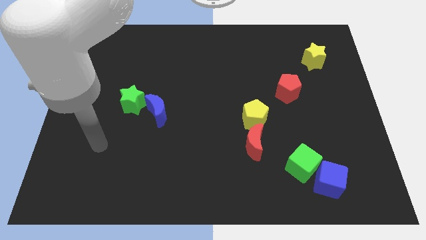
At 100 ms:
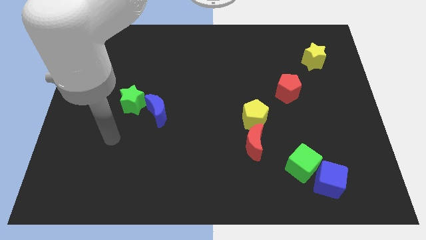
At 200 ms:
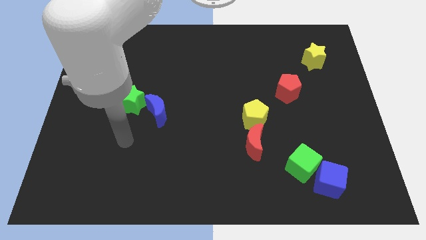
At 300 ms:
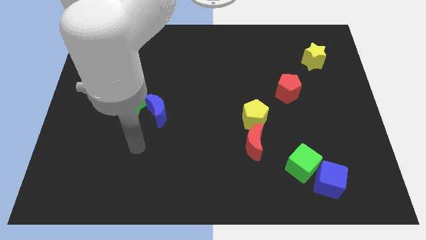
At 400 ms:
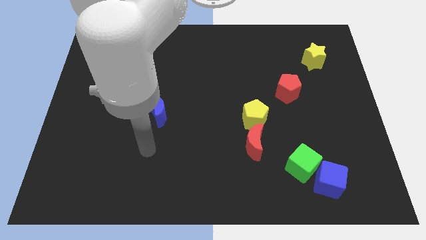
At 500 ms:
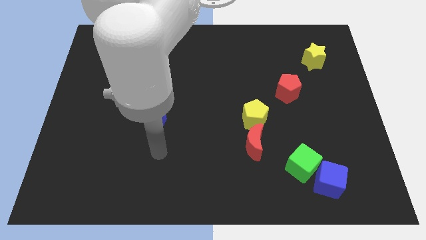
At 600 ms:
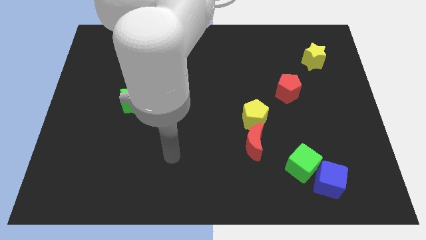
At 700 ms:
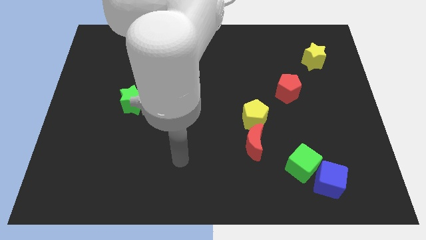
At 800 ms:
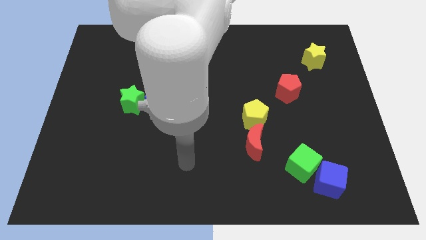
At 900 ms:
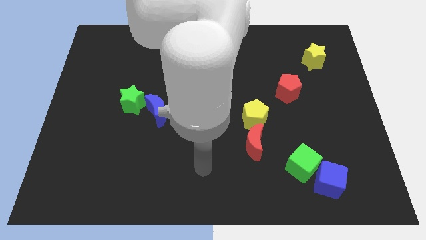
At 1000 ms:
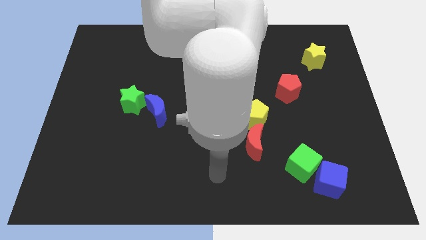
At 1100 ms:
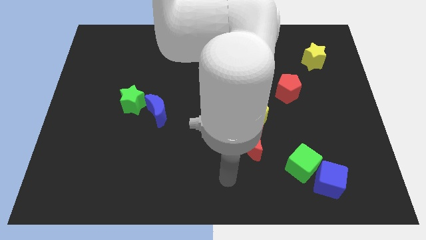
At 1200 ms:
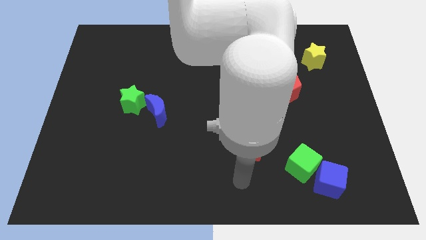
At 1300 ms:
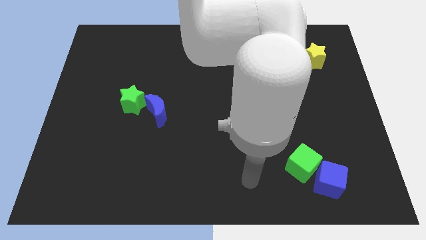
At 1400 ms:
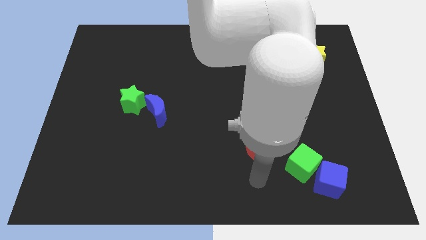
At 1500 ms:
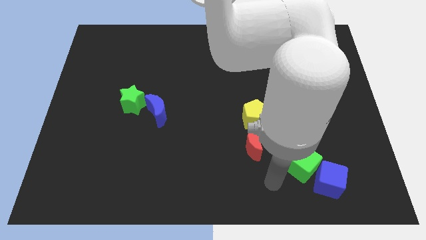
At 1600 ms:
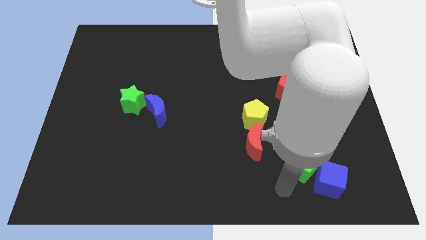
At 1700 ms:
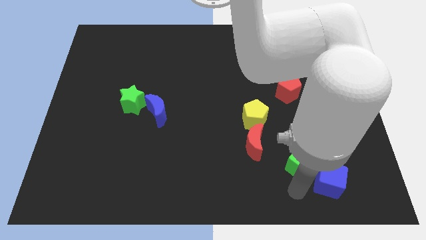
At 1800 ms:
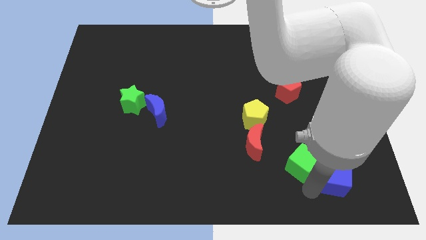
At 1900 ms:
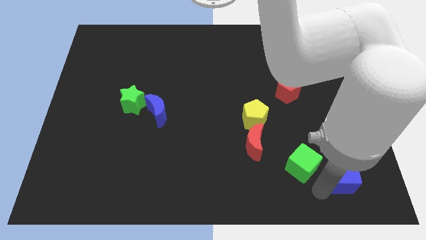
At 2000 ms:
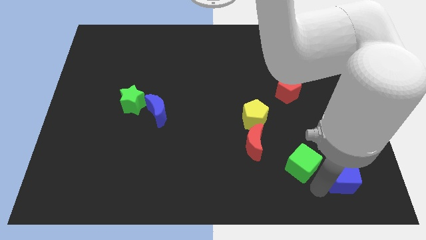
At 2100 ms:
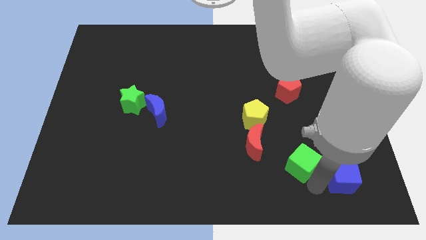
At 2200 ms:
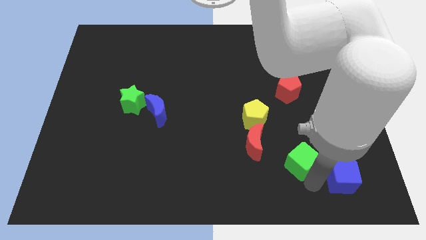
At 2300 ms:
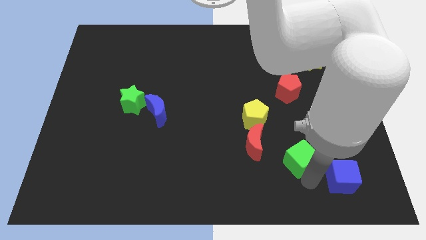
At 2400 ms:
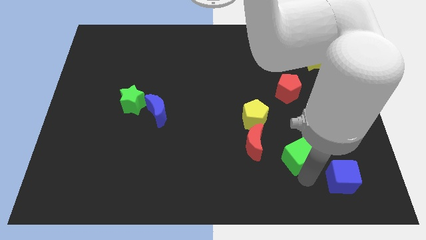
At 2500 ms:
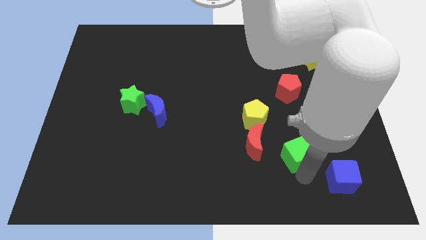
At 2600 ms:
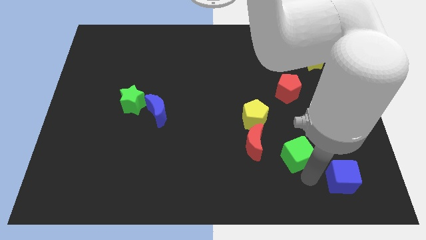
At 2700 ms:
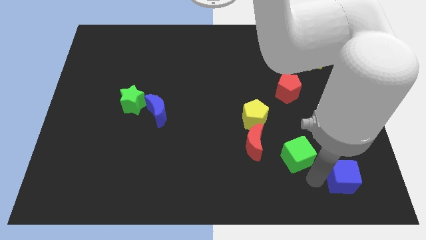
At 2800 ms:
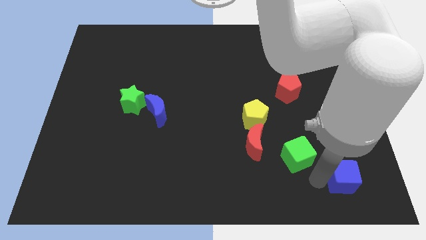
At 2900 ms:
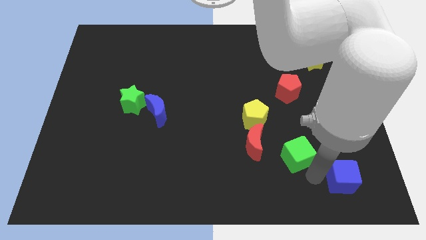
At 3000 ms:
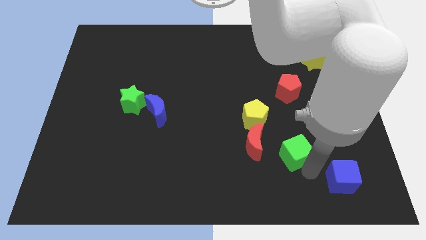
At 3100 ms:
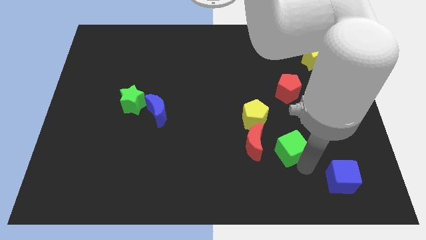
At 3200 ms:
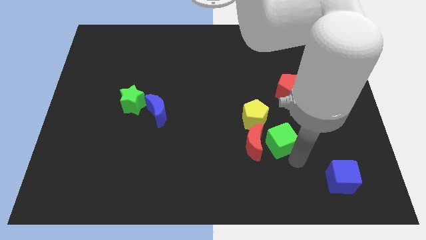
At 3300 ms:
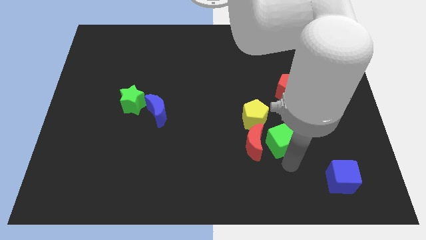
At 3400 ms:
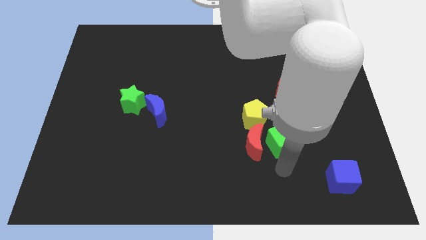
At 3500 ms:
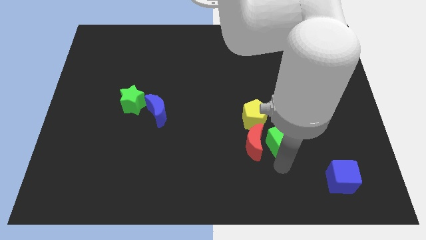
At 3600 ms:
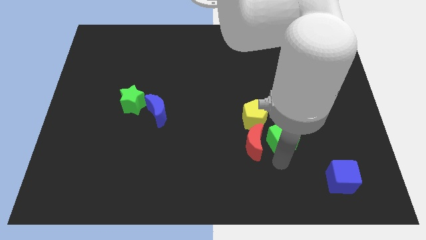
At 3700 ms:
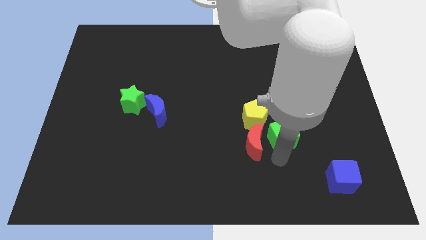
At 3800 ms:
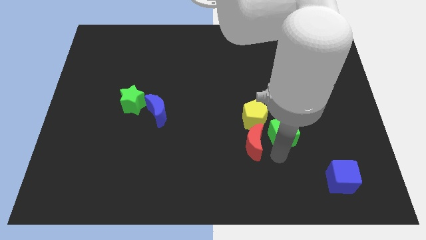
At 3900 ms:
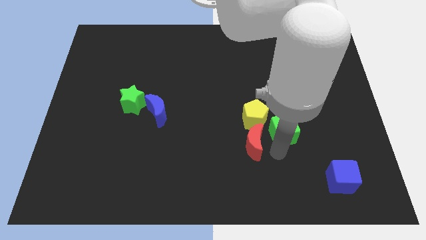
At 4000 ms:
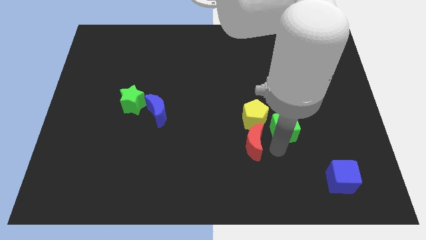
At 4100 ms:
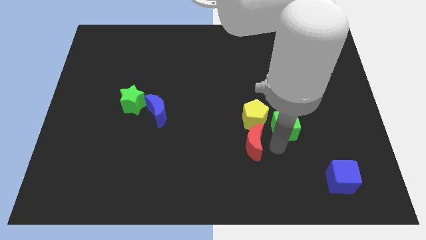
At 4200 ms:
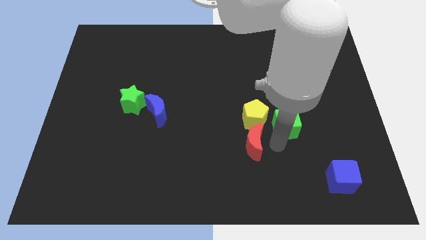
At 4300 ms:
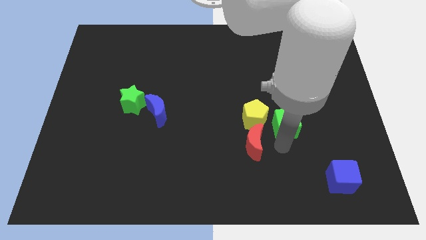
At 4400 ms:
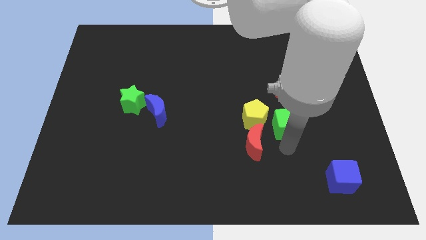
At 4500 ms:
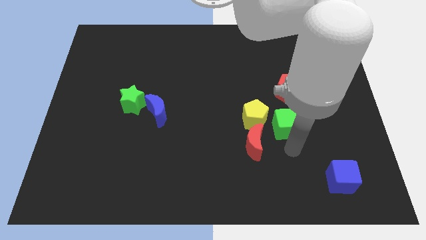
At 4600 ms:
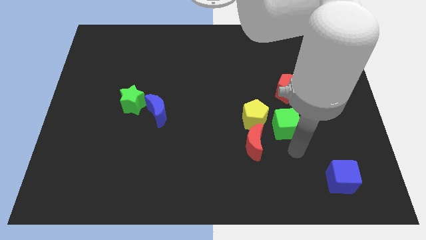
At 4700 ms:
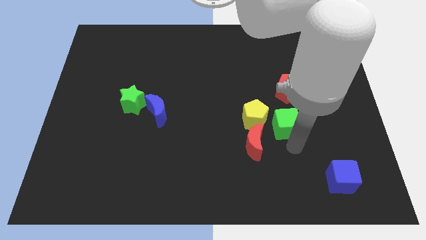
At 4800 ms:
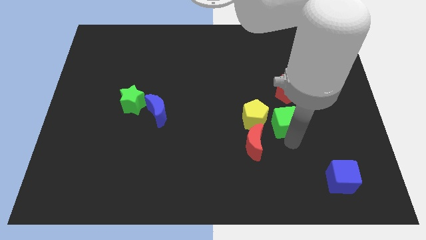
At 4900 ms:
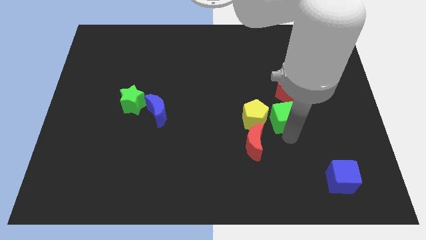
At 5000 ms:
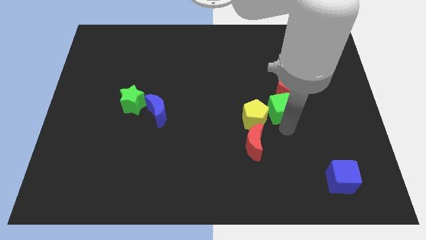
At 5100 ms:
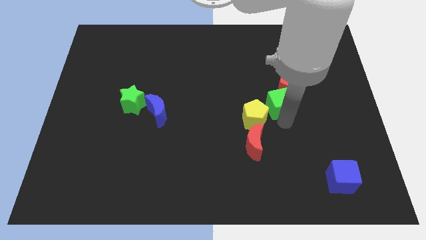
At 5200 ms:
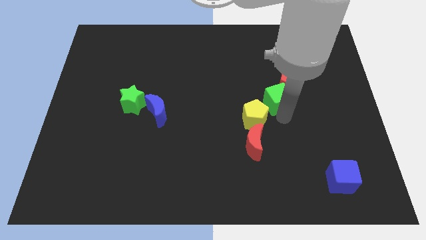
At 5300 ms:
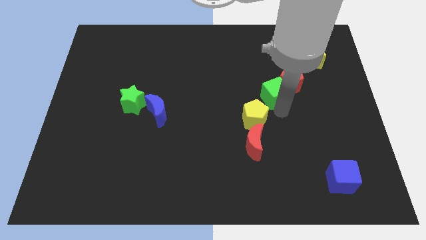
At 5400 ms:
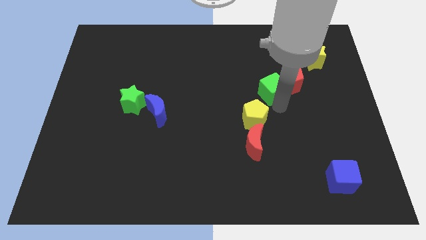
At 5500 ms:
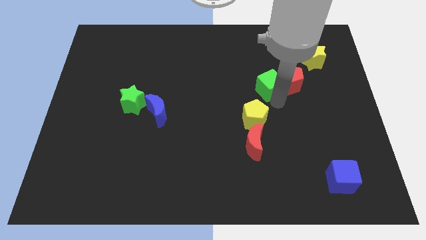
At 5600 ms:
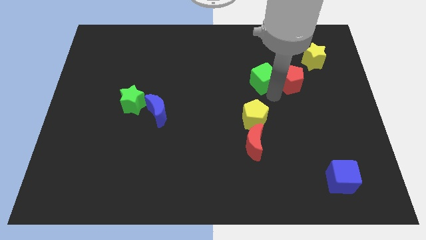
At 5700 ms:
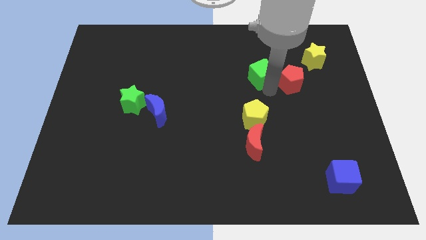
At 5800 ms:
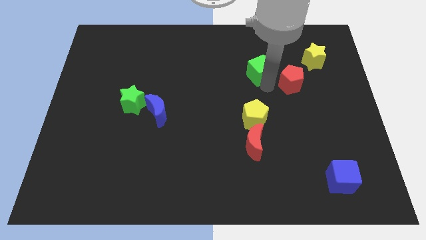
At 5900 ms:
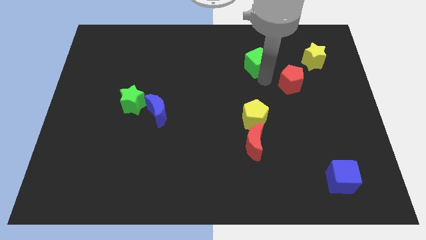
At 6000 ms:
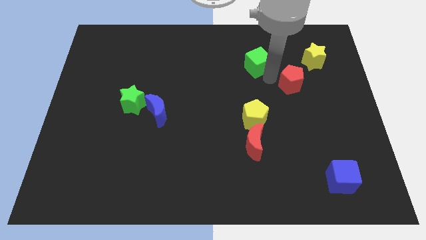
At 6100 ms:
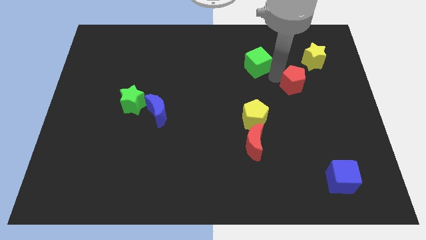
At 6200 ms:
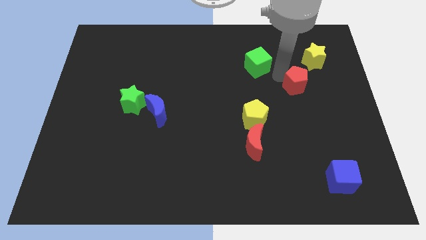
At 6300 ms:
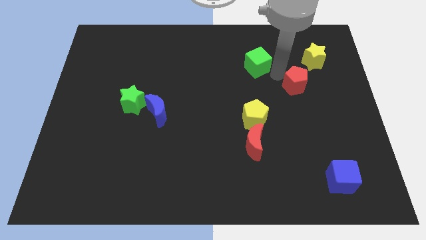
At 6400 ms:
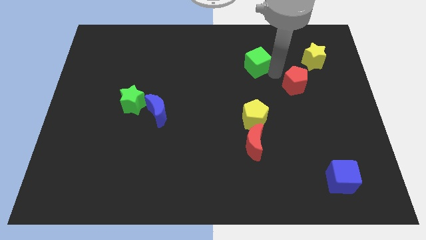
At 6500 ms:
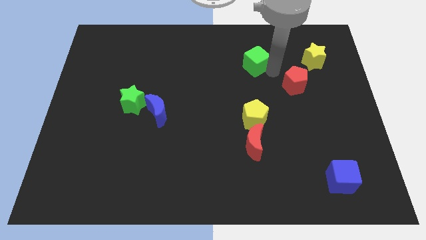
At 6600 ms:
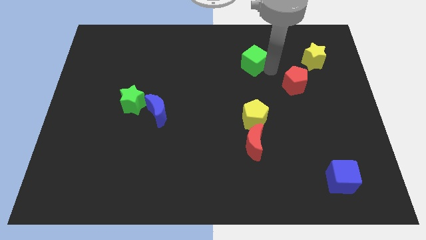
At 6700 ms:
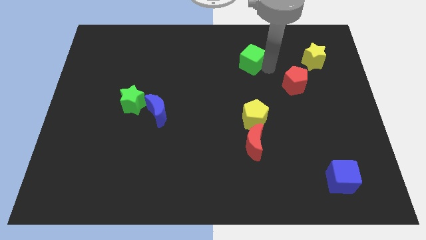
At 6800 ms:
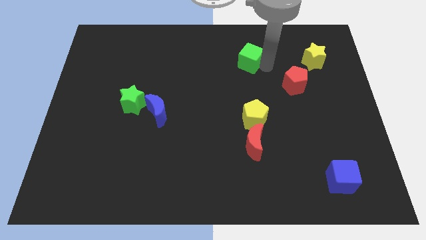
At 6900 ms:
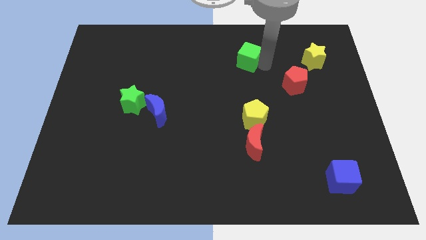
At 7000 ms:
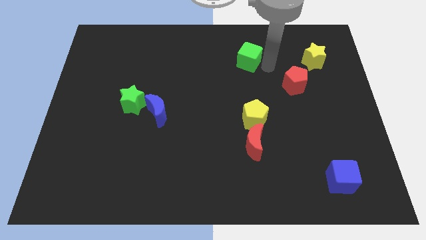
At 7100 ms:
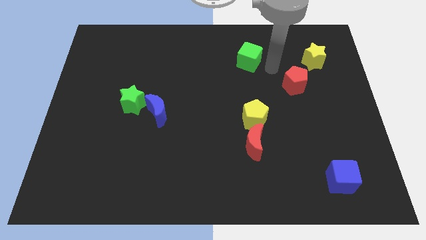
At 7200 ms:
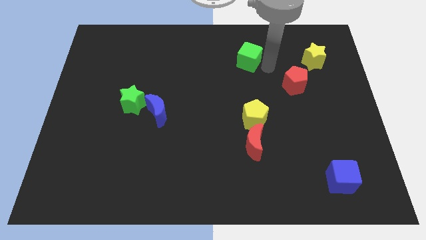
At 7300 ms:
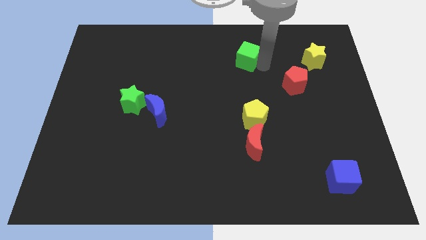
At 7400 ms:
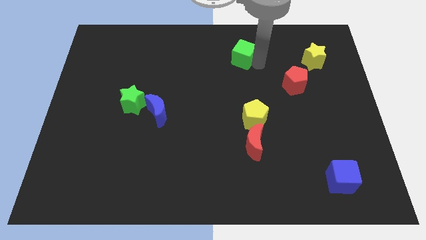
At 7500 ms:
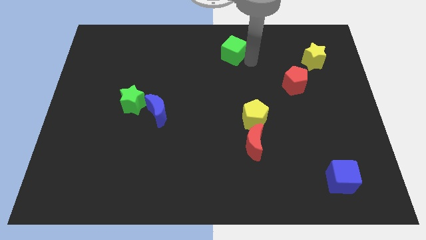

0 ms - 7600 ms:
push the green cube to the top
